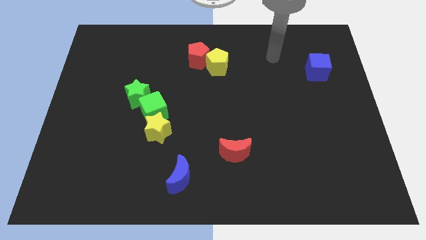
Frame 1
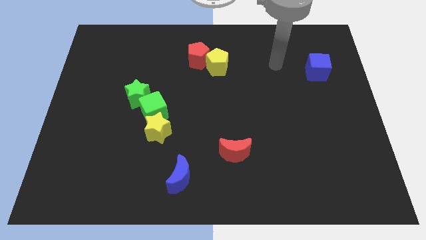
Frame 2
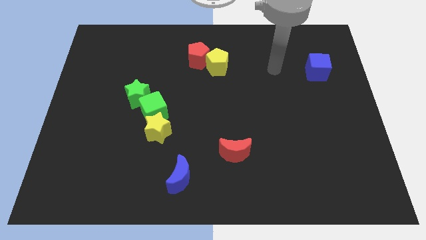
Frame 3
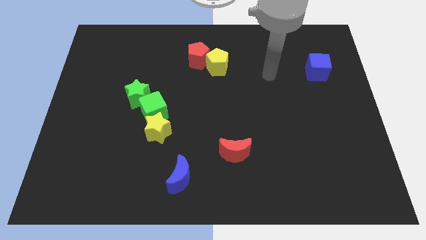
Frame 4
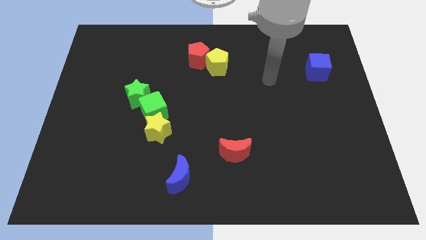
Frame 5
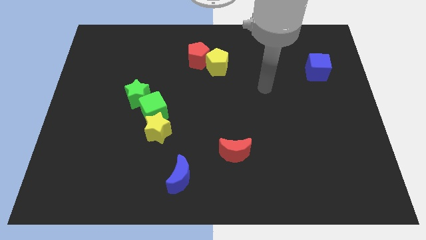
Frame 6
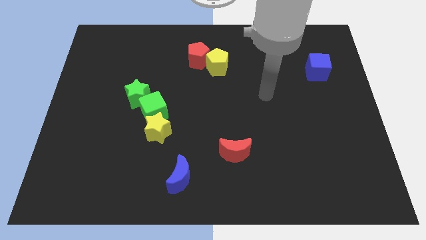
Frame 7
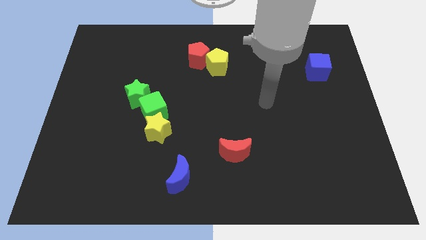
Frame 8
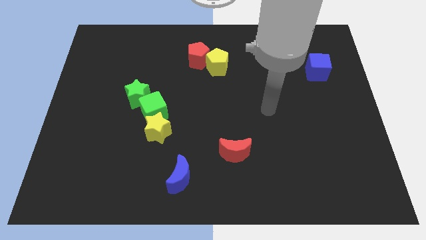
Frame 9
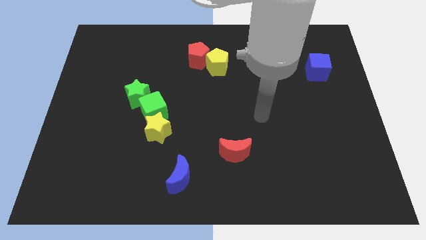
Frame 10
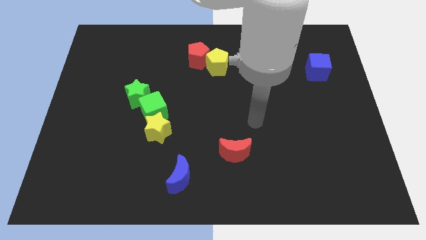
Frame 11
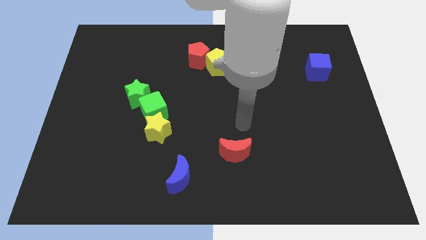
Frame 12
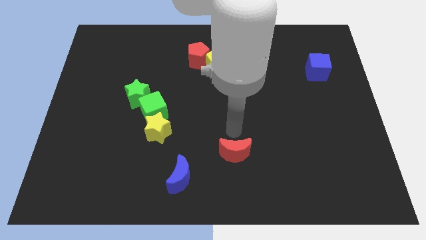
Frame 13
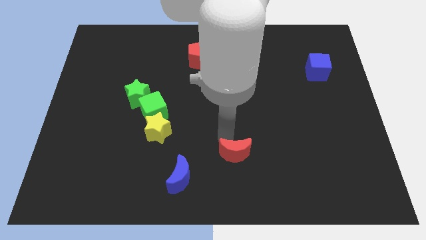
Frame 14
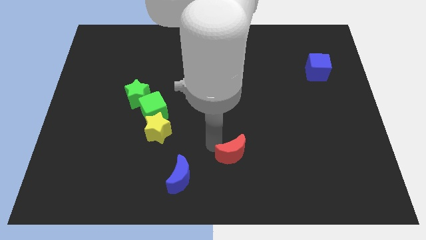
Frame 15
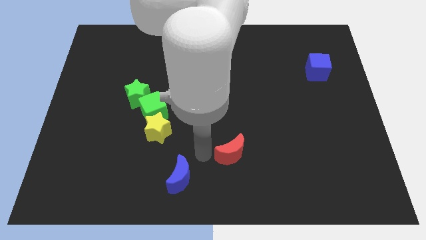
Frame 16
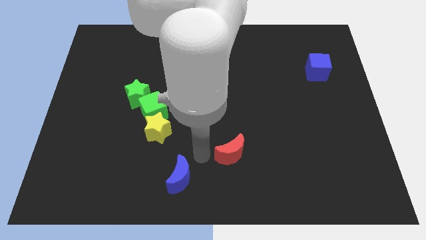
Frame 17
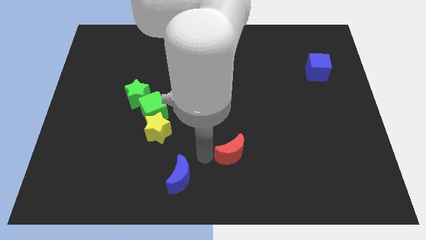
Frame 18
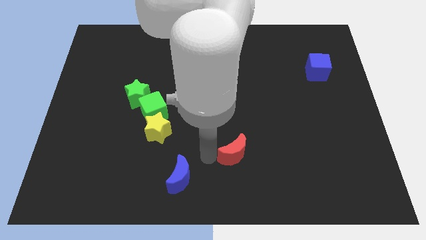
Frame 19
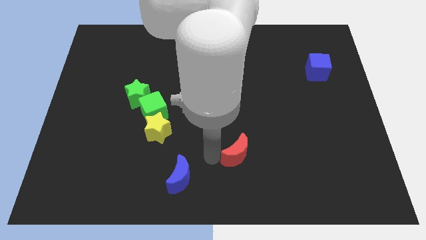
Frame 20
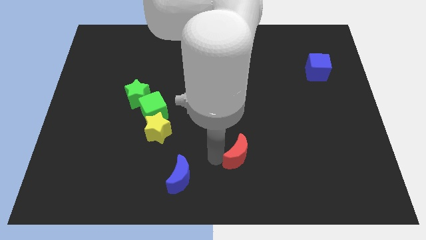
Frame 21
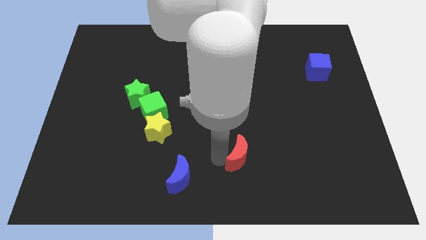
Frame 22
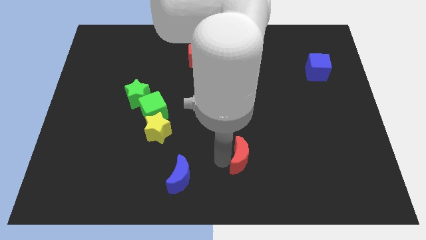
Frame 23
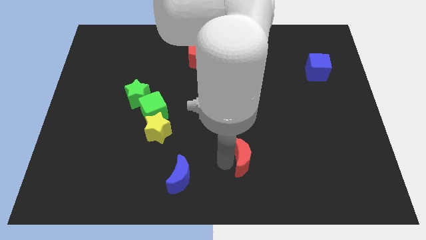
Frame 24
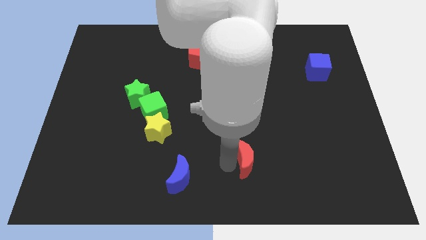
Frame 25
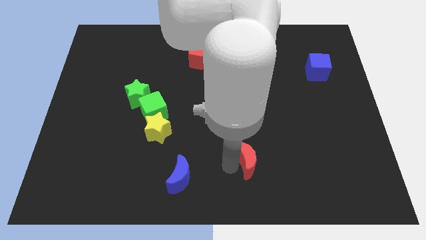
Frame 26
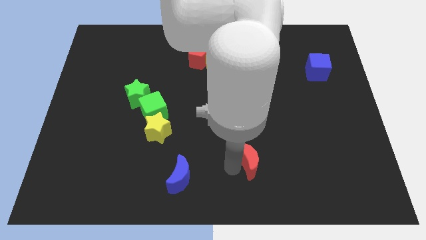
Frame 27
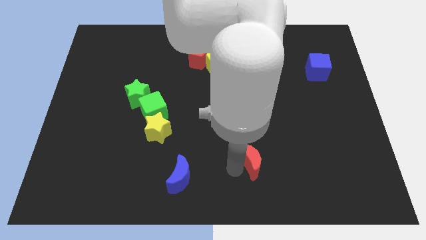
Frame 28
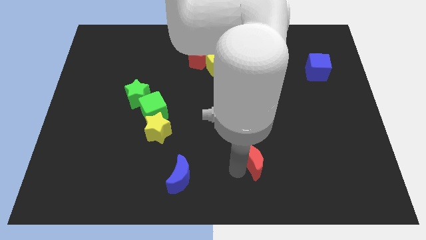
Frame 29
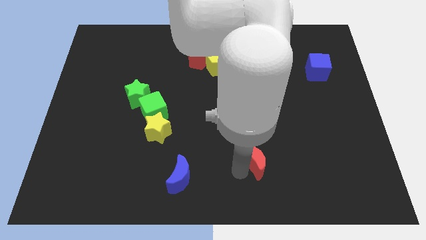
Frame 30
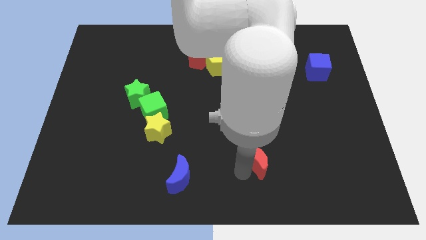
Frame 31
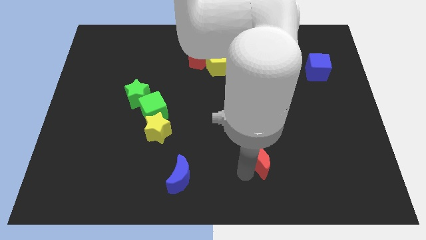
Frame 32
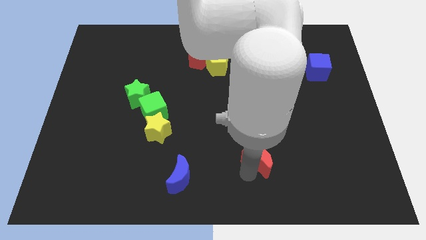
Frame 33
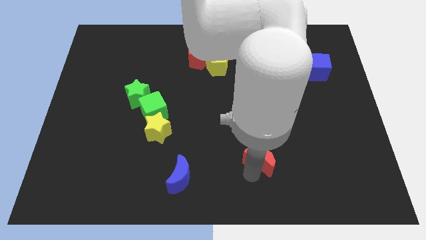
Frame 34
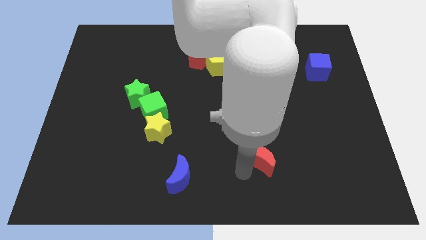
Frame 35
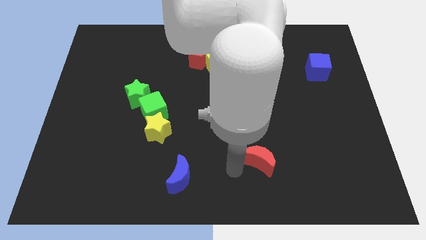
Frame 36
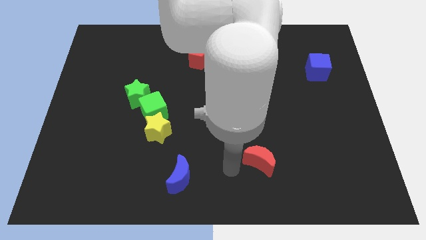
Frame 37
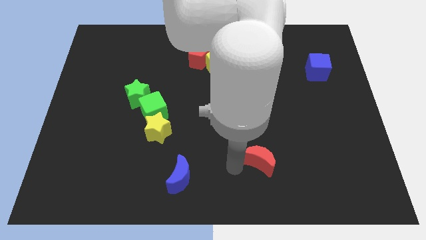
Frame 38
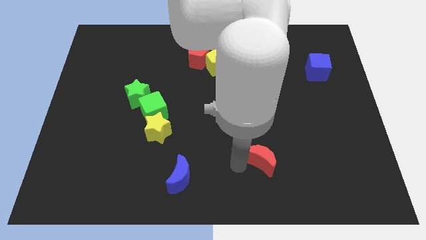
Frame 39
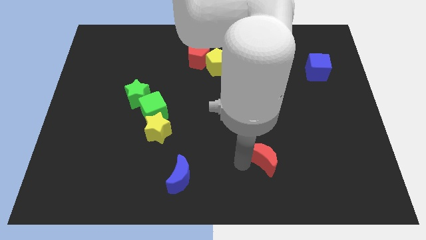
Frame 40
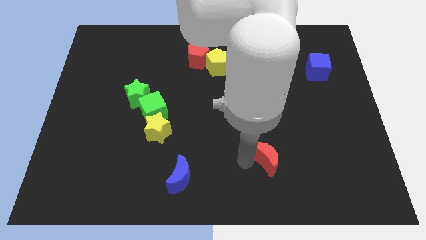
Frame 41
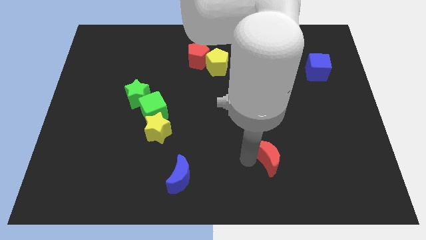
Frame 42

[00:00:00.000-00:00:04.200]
slightly slide the red moon to the right

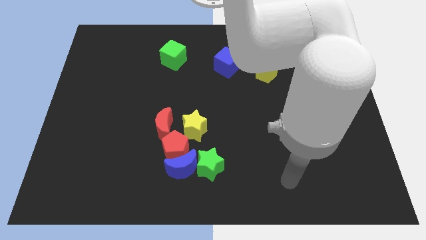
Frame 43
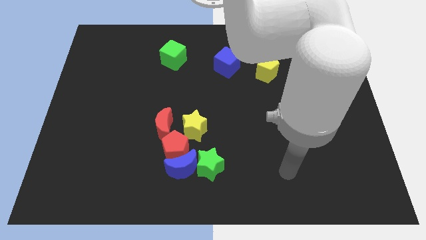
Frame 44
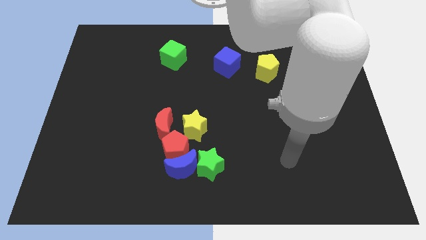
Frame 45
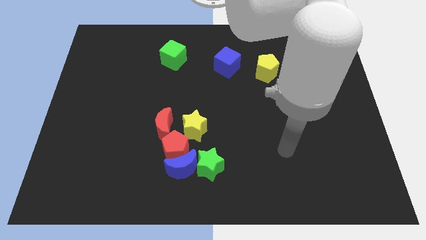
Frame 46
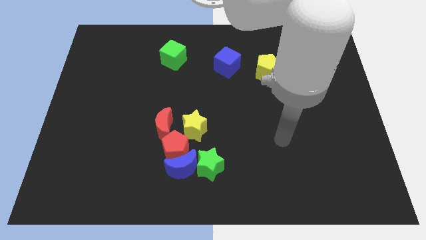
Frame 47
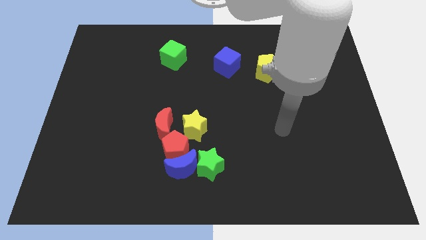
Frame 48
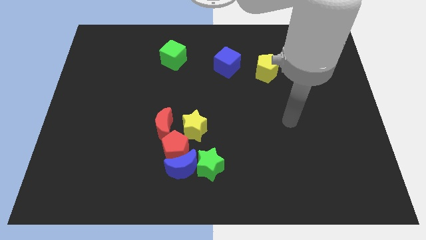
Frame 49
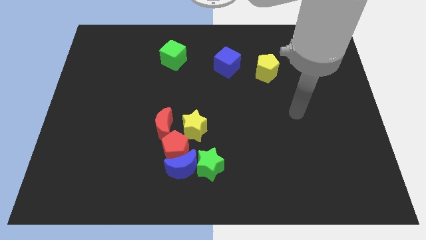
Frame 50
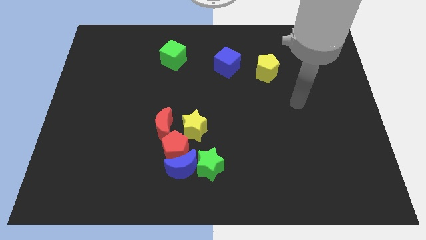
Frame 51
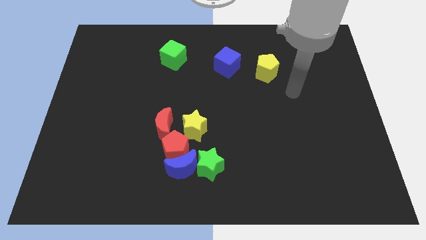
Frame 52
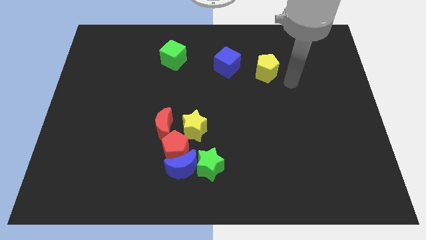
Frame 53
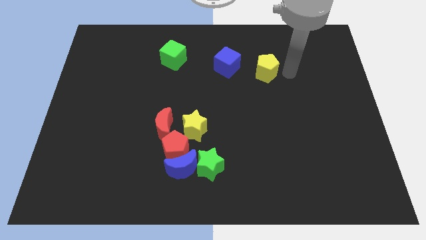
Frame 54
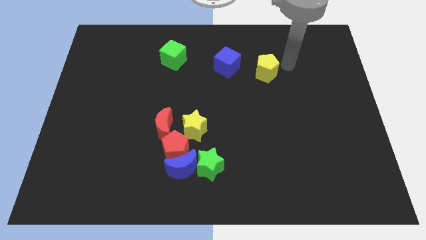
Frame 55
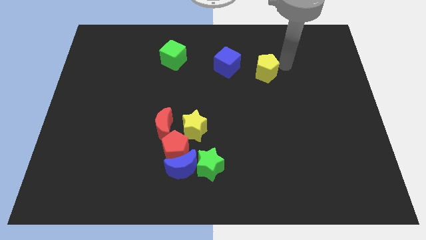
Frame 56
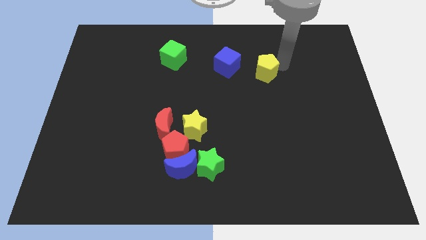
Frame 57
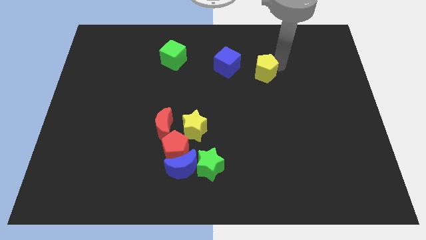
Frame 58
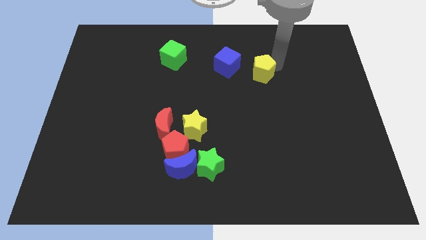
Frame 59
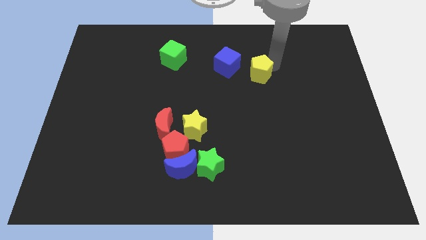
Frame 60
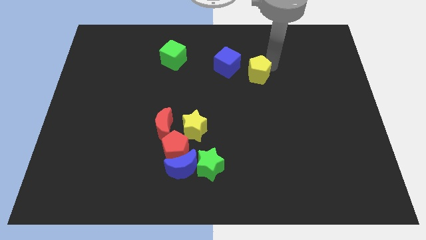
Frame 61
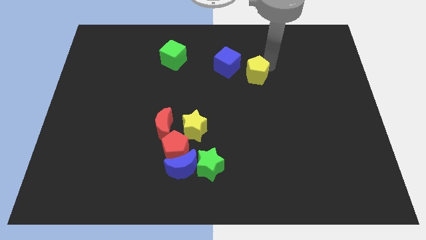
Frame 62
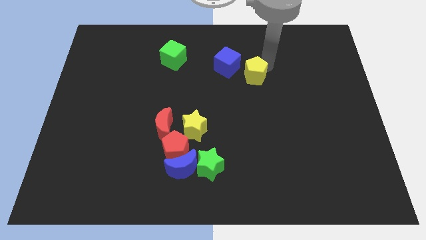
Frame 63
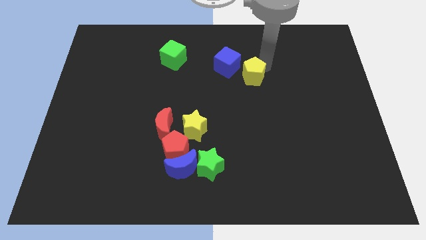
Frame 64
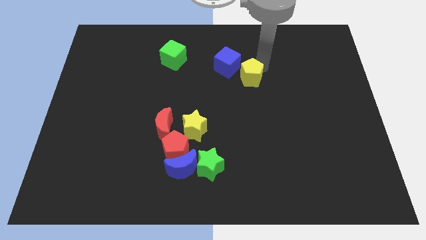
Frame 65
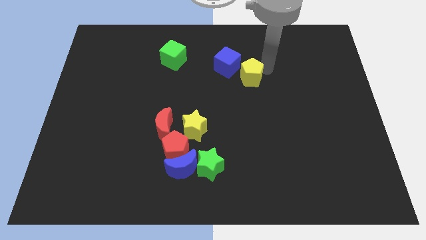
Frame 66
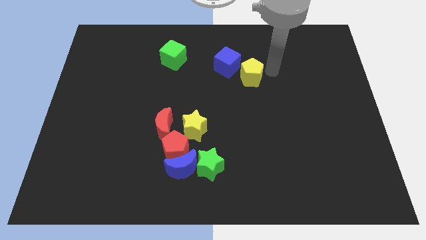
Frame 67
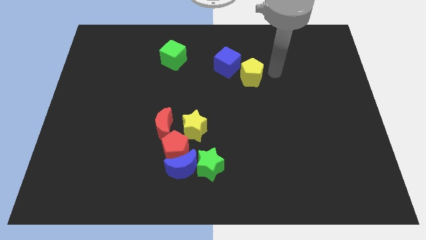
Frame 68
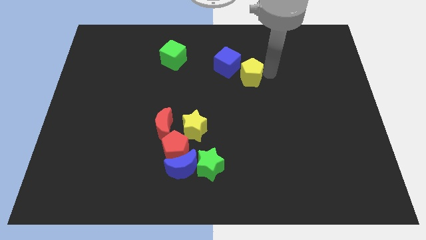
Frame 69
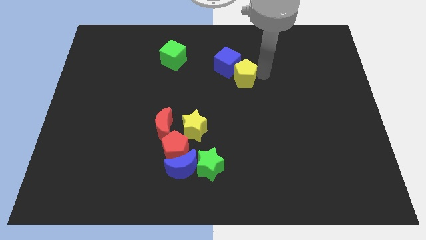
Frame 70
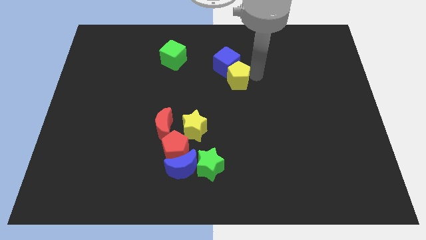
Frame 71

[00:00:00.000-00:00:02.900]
slightly slide the yellow pentagon to the left

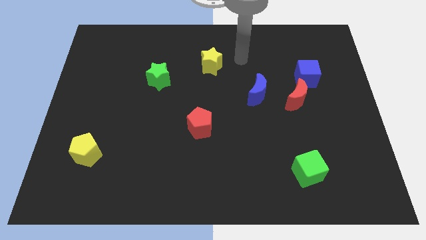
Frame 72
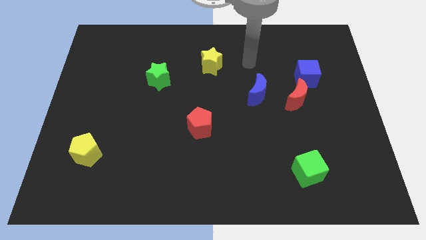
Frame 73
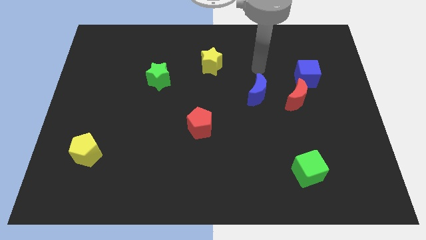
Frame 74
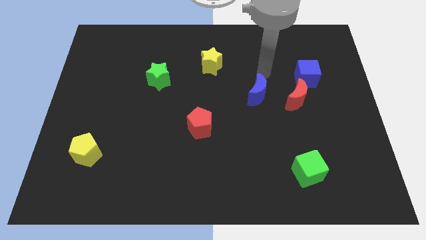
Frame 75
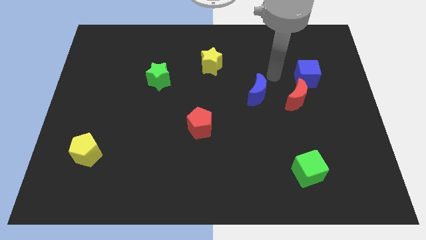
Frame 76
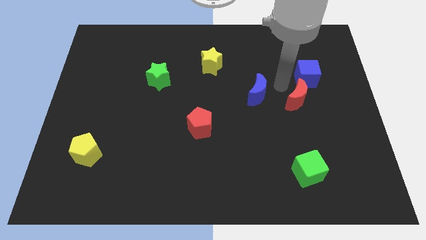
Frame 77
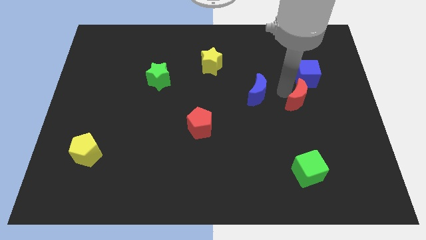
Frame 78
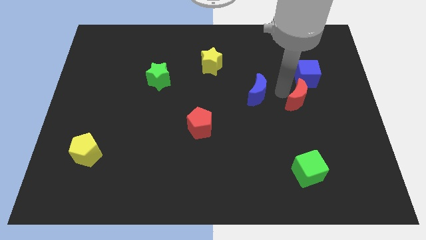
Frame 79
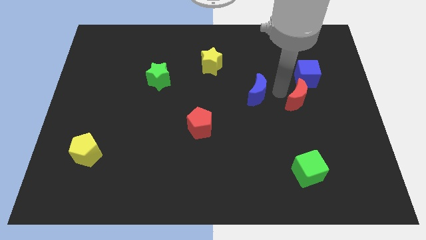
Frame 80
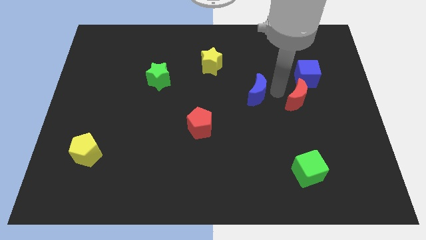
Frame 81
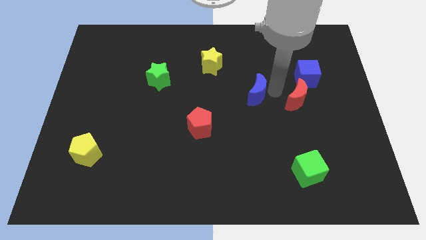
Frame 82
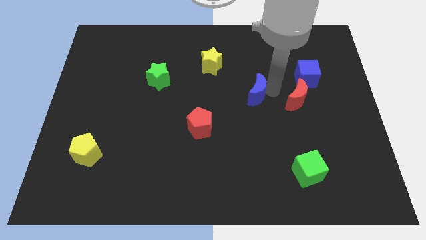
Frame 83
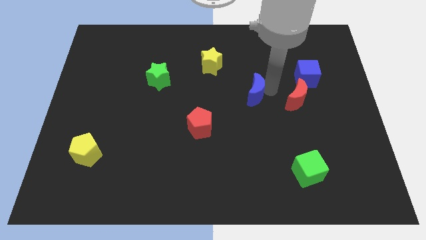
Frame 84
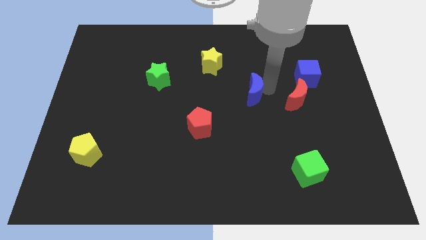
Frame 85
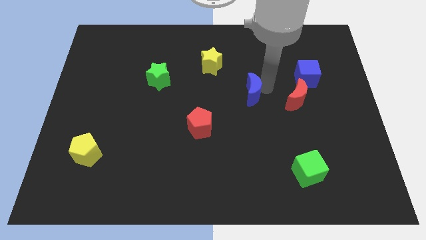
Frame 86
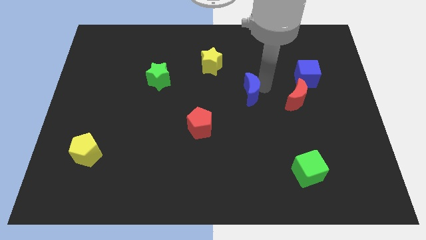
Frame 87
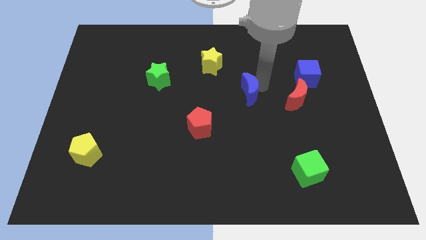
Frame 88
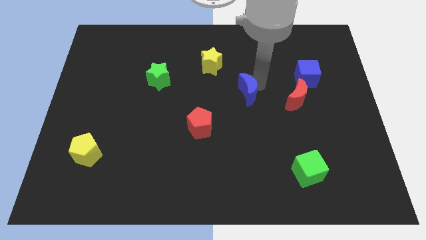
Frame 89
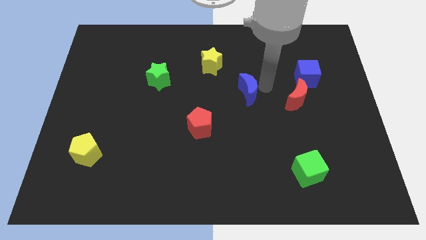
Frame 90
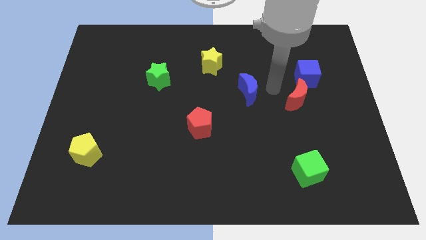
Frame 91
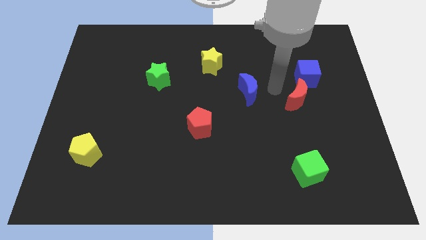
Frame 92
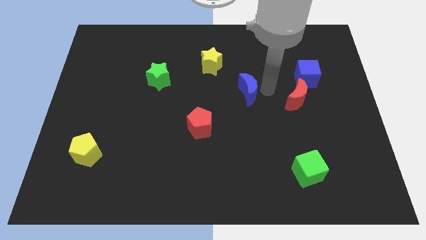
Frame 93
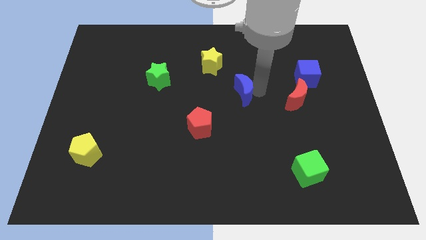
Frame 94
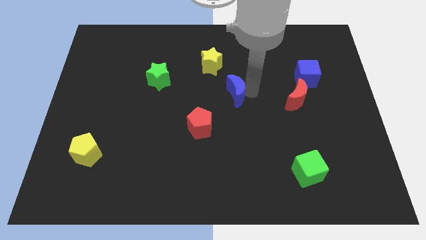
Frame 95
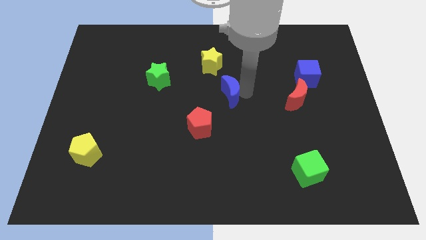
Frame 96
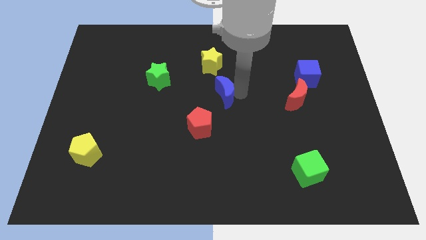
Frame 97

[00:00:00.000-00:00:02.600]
push the blue moon left a little
